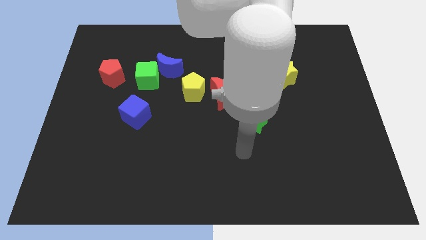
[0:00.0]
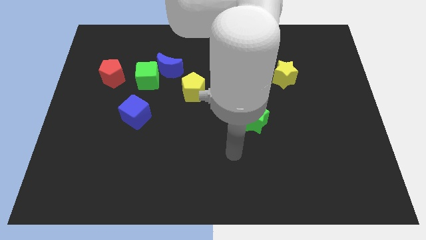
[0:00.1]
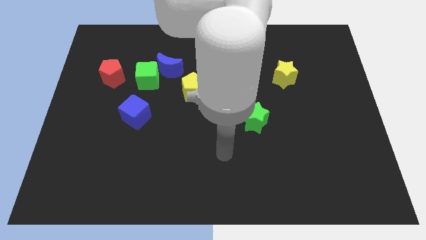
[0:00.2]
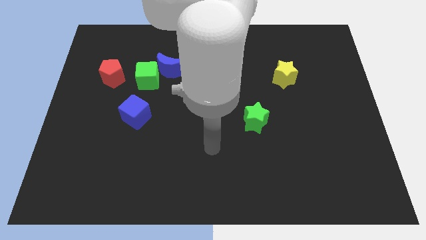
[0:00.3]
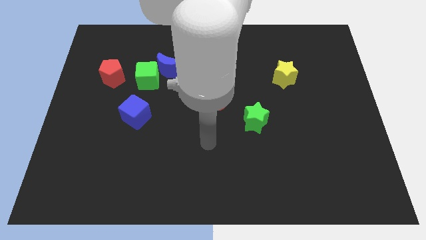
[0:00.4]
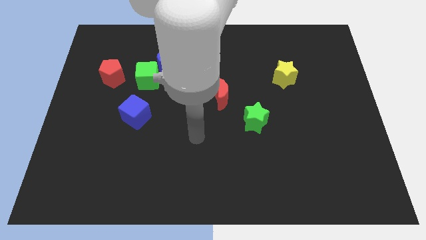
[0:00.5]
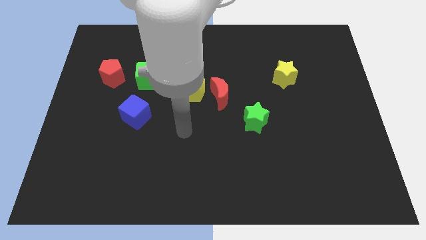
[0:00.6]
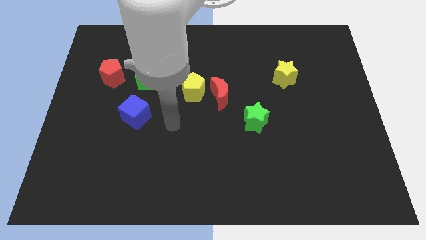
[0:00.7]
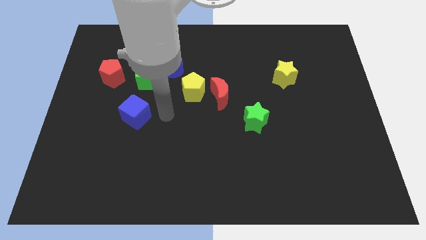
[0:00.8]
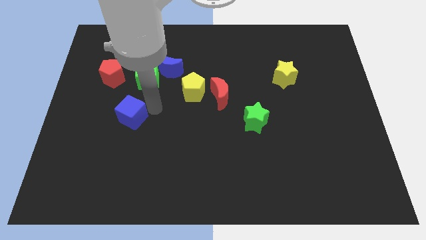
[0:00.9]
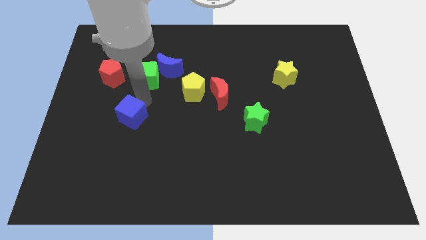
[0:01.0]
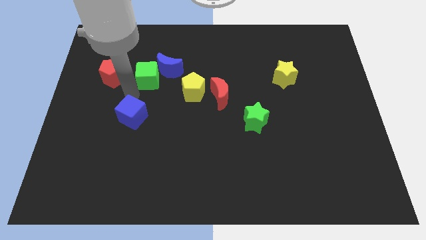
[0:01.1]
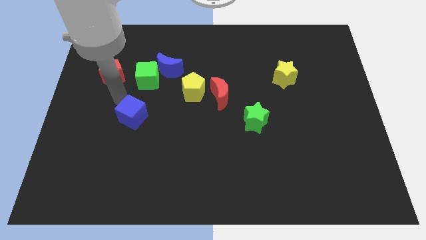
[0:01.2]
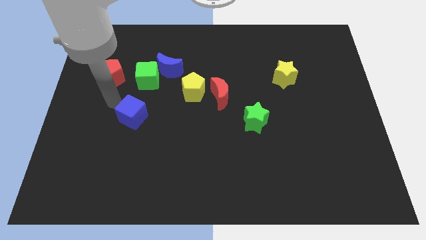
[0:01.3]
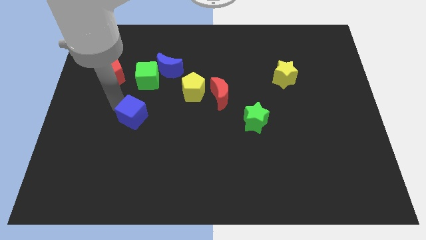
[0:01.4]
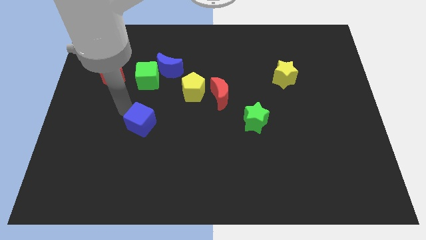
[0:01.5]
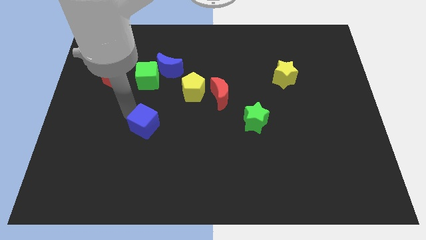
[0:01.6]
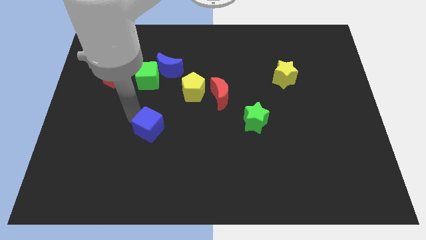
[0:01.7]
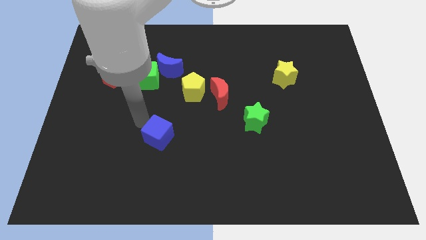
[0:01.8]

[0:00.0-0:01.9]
push the blue cube a little bit diagonally down and to the right

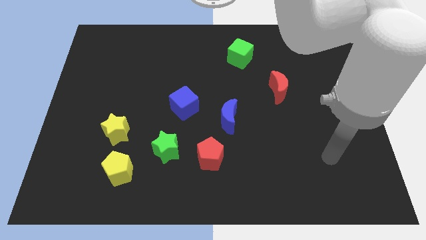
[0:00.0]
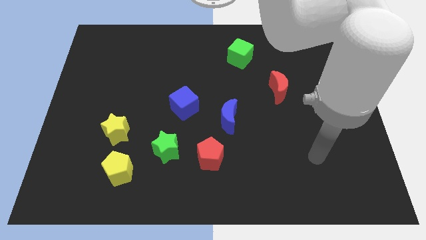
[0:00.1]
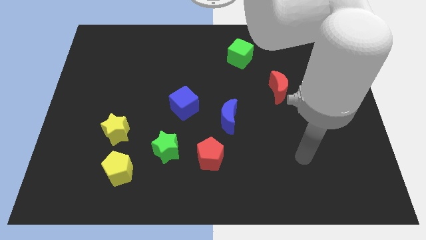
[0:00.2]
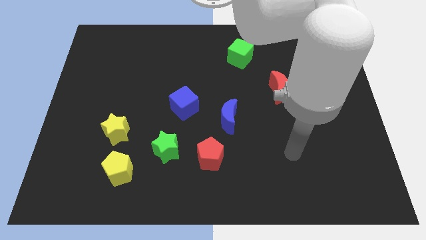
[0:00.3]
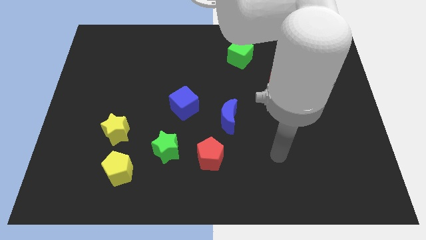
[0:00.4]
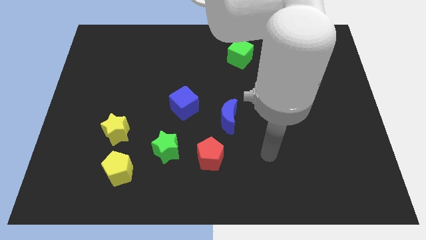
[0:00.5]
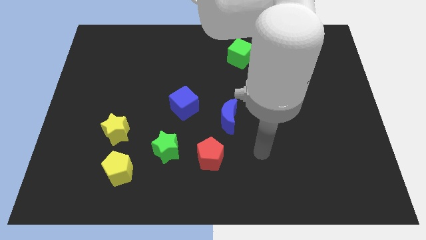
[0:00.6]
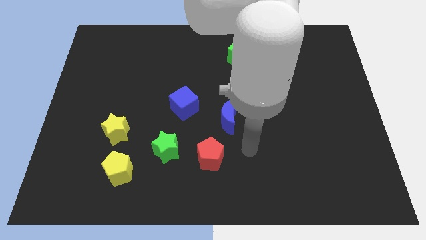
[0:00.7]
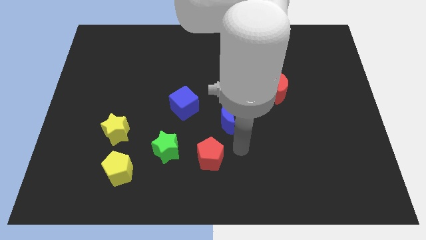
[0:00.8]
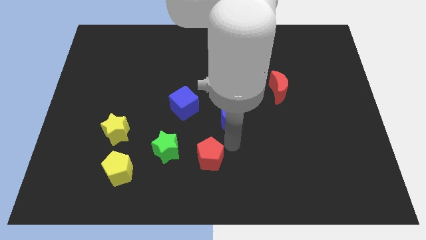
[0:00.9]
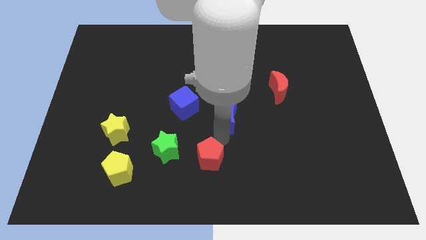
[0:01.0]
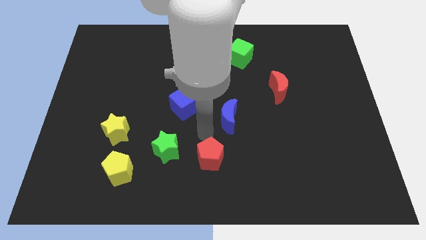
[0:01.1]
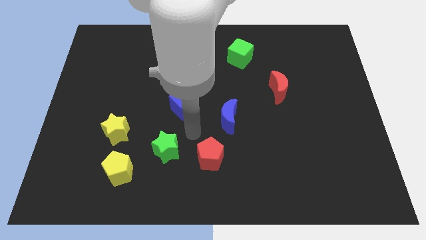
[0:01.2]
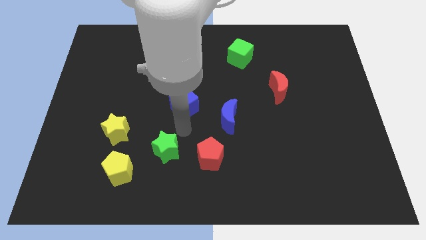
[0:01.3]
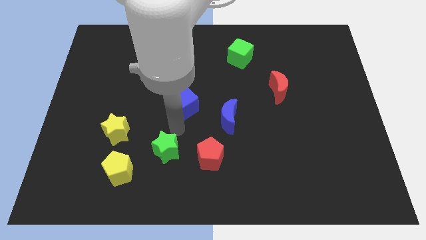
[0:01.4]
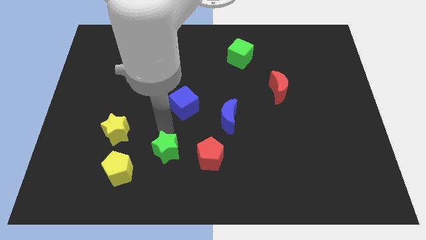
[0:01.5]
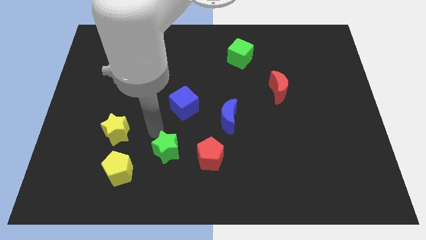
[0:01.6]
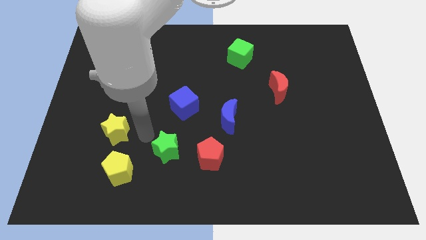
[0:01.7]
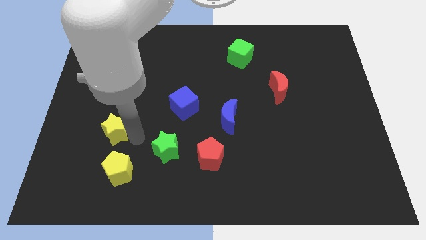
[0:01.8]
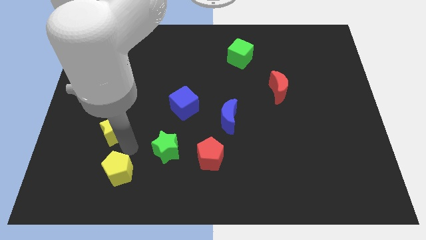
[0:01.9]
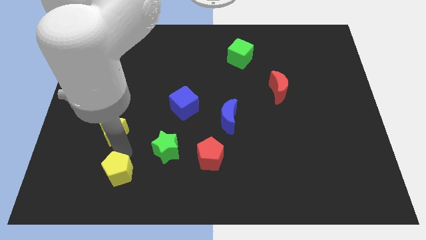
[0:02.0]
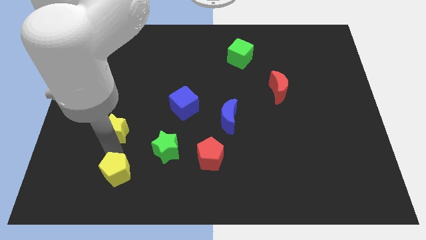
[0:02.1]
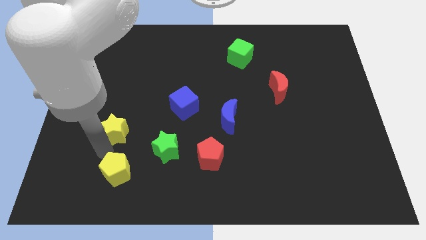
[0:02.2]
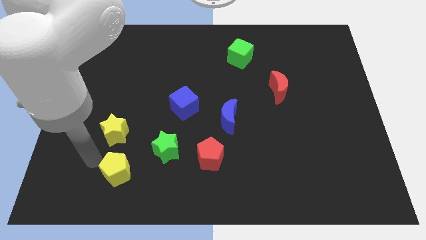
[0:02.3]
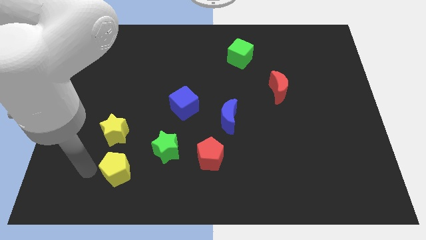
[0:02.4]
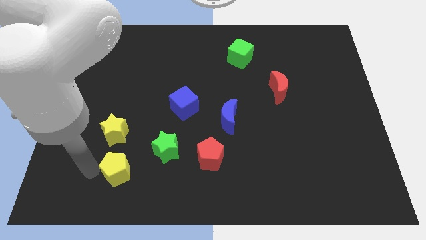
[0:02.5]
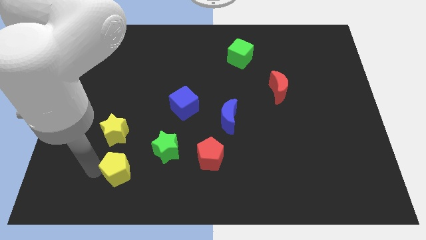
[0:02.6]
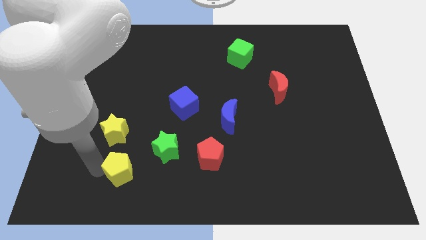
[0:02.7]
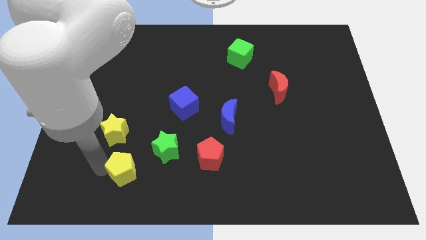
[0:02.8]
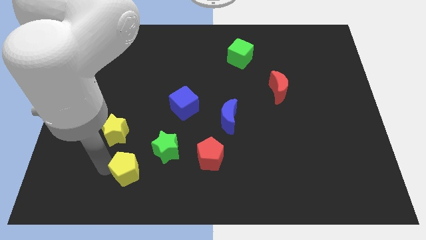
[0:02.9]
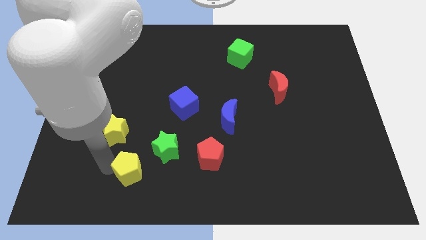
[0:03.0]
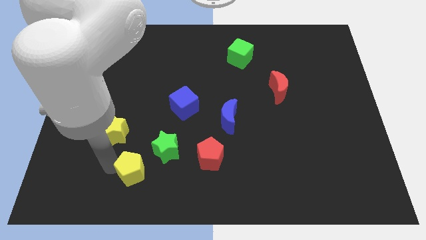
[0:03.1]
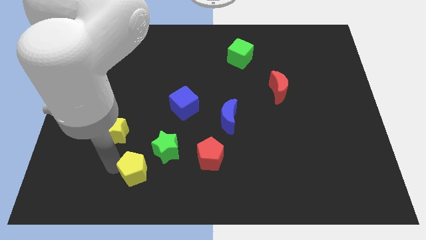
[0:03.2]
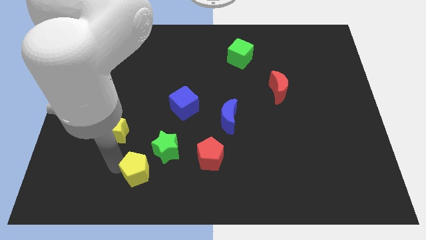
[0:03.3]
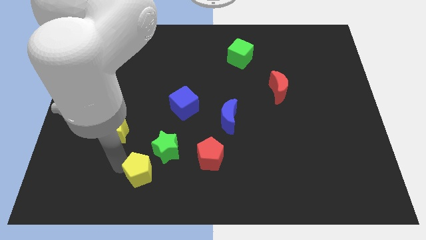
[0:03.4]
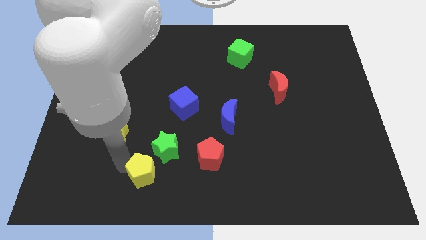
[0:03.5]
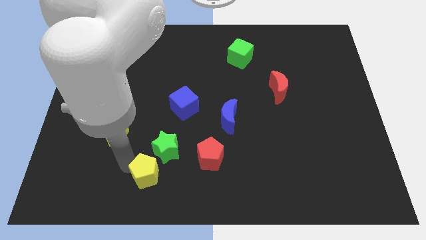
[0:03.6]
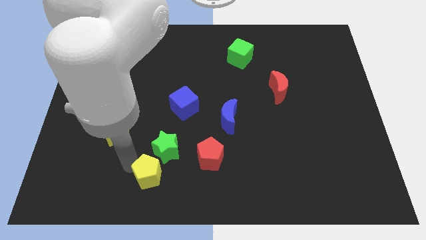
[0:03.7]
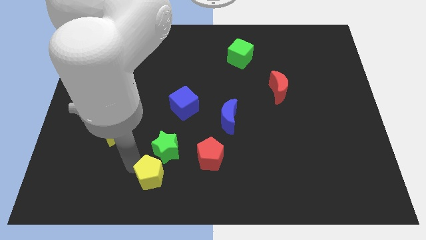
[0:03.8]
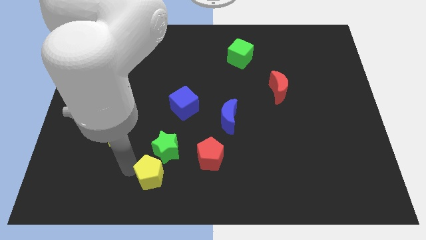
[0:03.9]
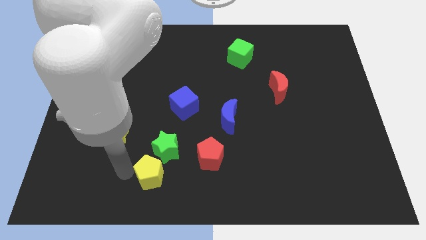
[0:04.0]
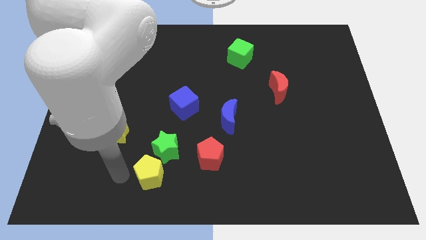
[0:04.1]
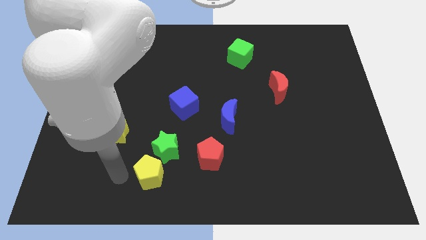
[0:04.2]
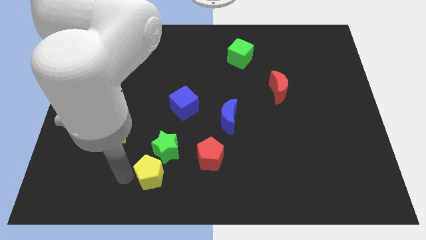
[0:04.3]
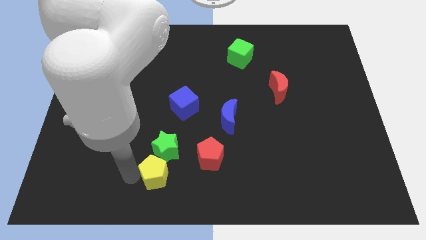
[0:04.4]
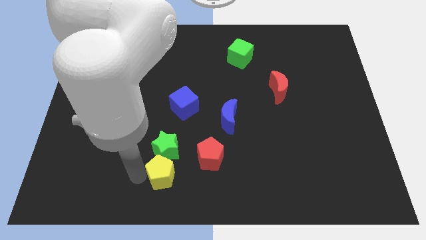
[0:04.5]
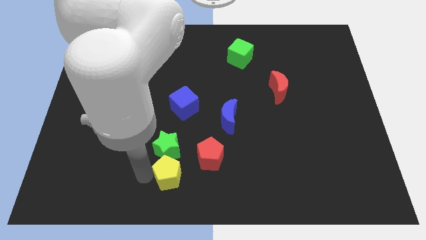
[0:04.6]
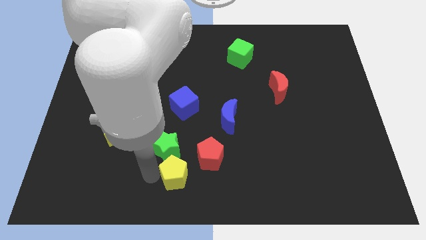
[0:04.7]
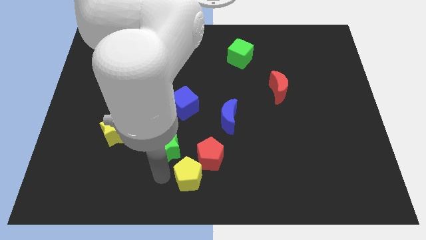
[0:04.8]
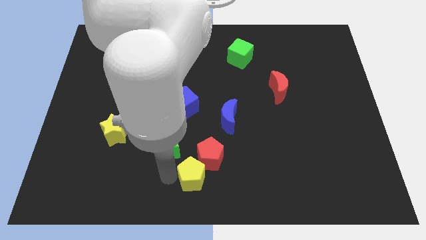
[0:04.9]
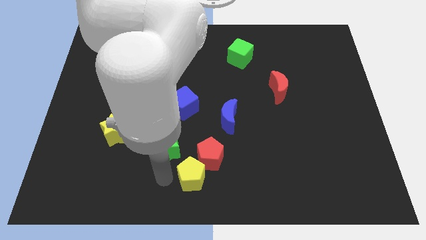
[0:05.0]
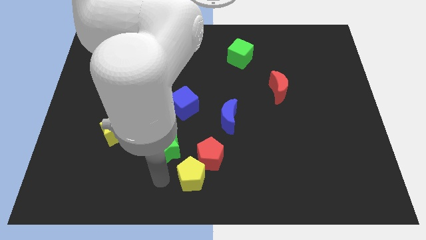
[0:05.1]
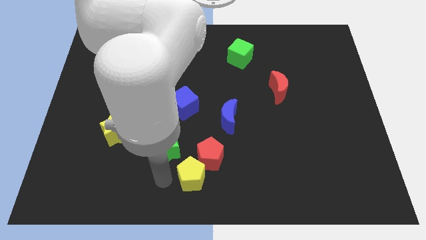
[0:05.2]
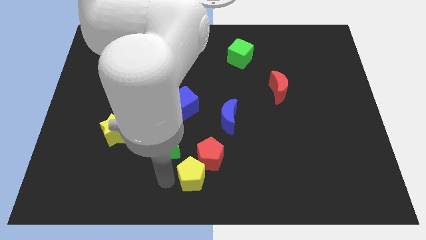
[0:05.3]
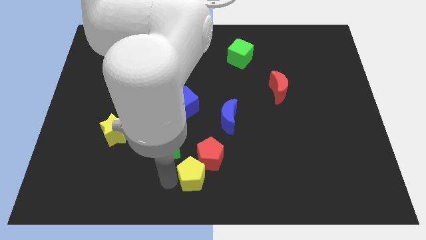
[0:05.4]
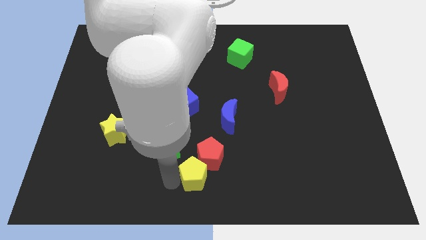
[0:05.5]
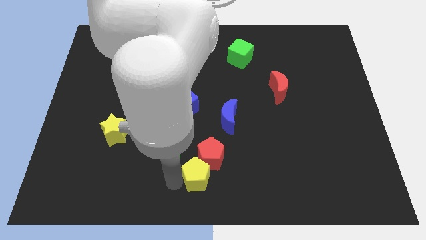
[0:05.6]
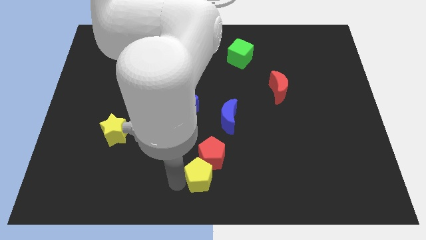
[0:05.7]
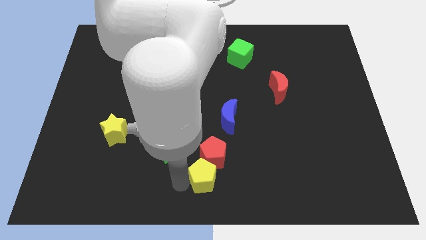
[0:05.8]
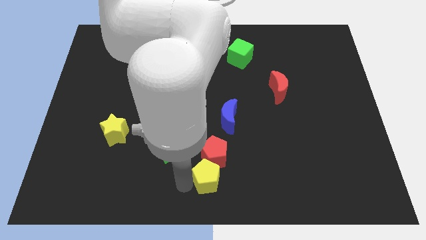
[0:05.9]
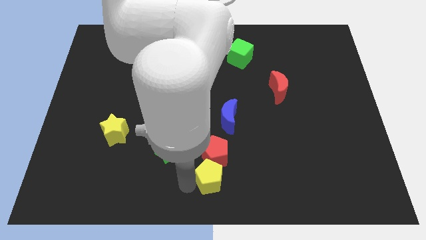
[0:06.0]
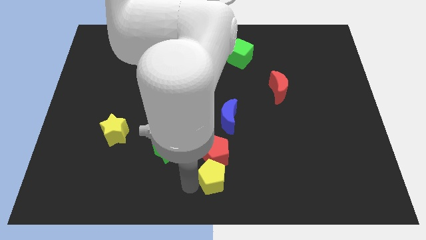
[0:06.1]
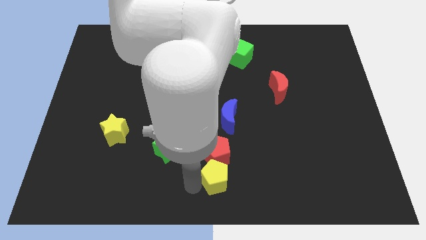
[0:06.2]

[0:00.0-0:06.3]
move the yellow pentagon to the right
